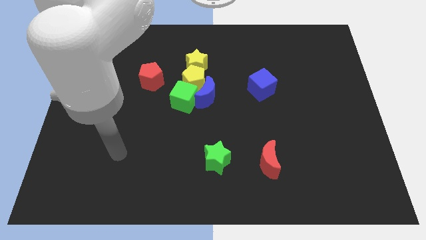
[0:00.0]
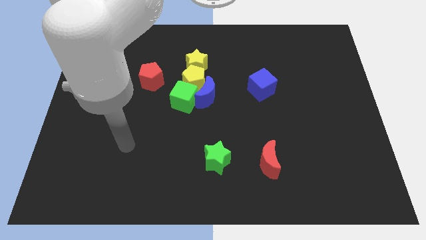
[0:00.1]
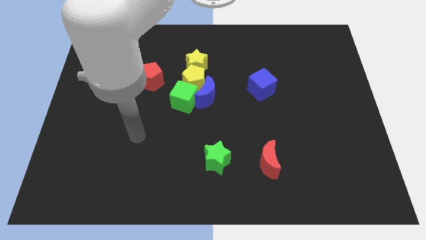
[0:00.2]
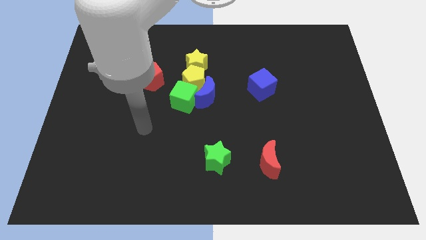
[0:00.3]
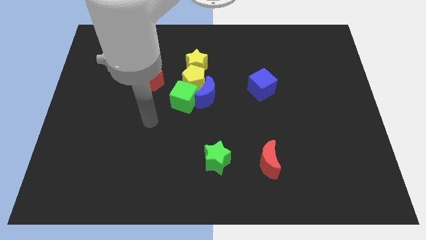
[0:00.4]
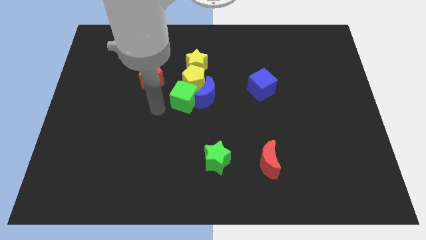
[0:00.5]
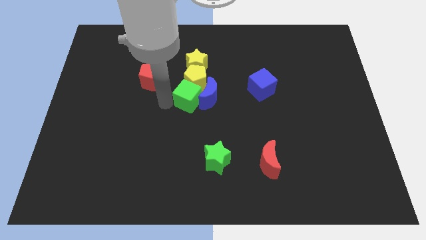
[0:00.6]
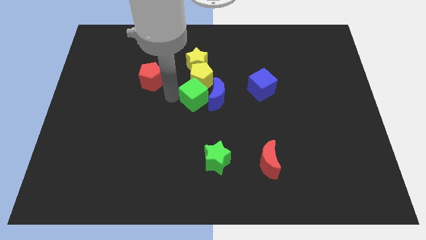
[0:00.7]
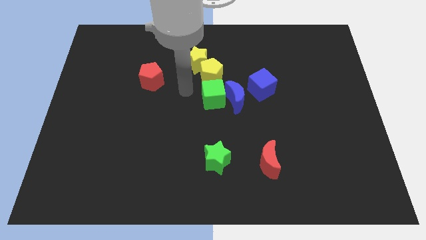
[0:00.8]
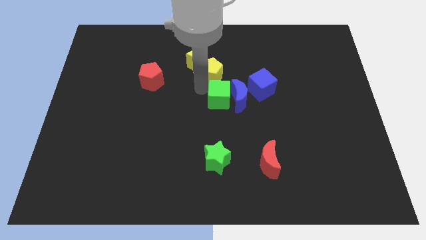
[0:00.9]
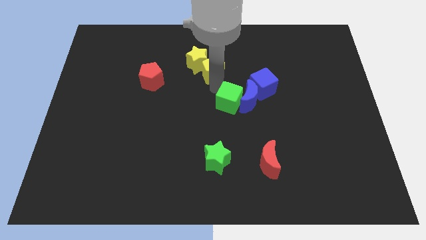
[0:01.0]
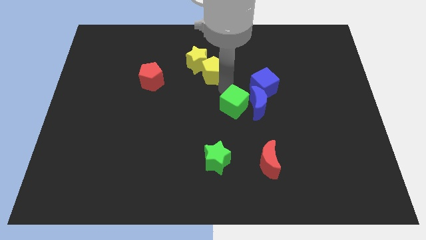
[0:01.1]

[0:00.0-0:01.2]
pull the blue moon apart from the yellow pentagon and green cube

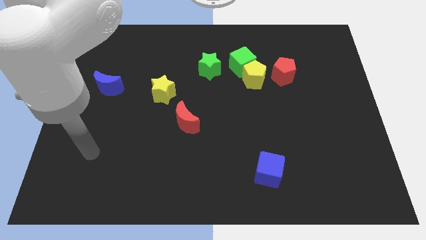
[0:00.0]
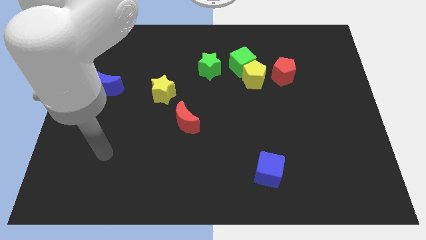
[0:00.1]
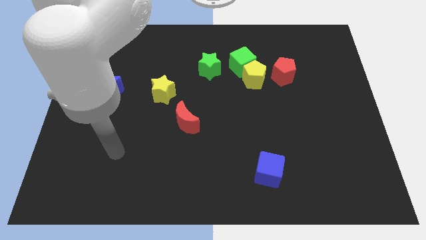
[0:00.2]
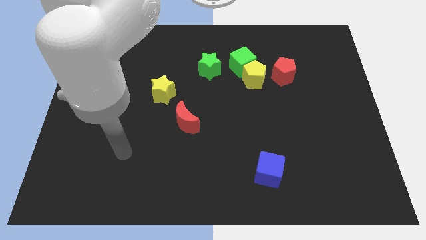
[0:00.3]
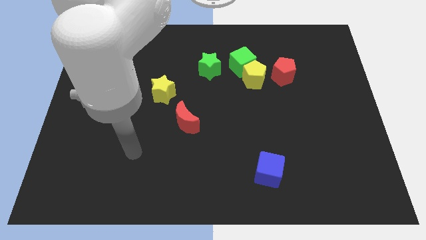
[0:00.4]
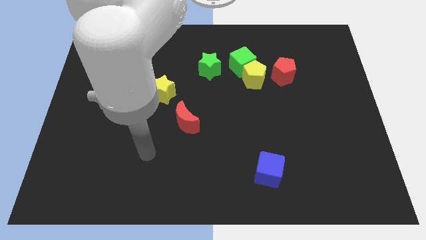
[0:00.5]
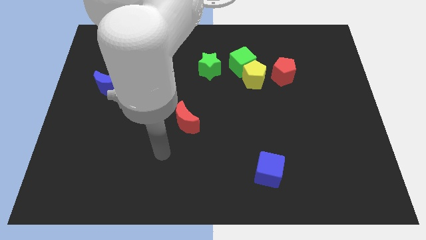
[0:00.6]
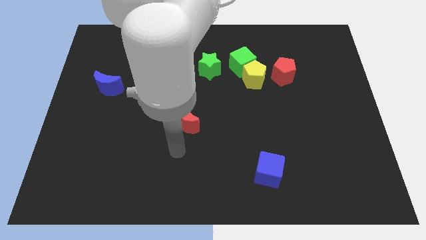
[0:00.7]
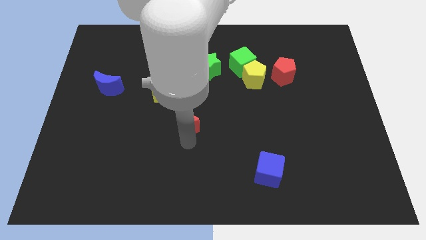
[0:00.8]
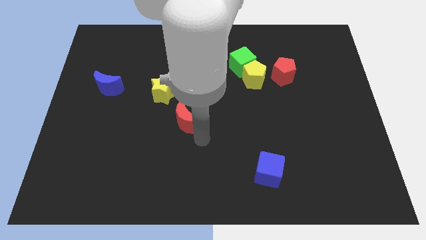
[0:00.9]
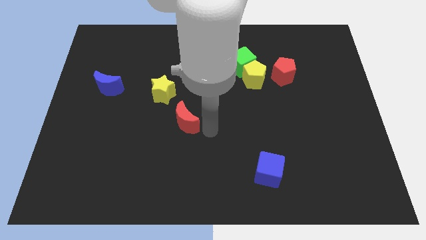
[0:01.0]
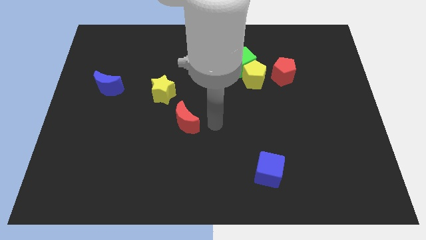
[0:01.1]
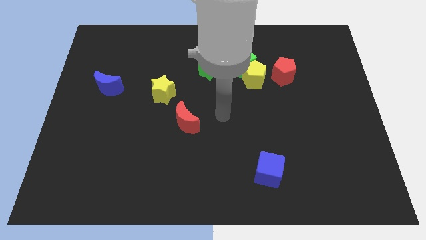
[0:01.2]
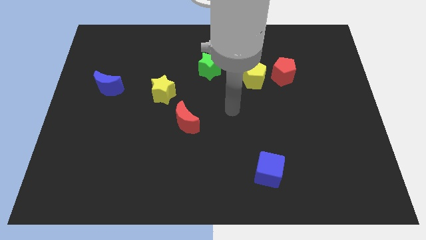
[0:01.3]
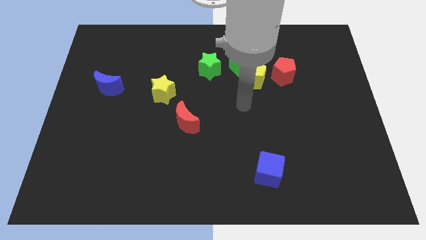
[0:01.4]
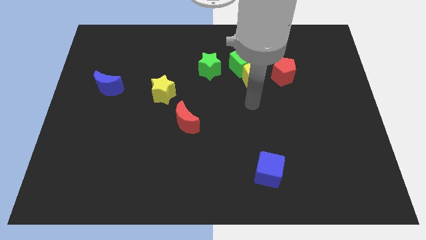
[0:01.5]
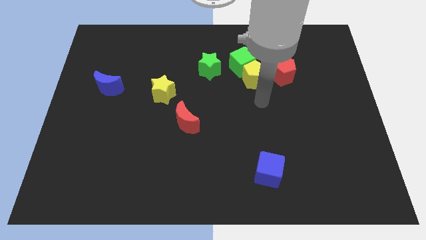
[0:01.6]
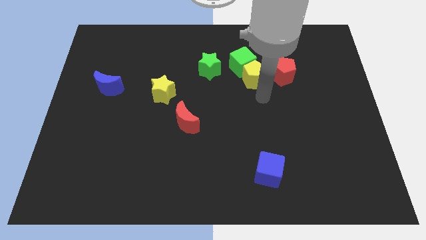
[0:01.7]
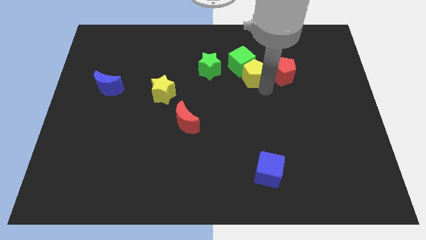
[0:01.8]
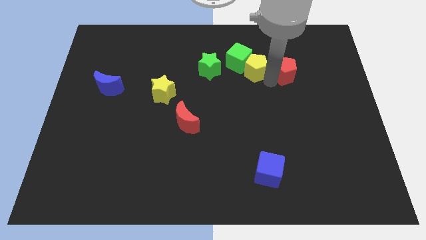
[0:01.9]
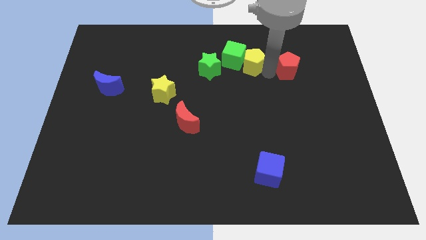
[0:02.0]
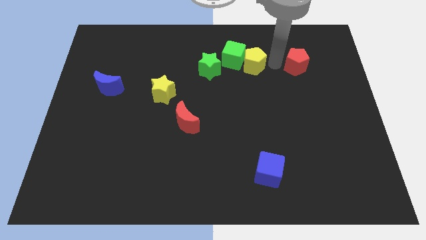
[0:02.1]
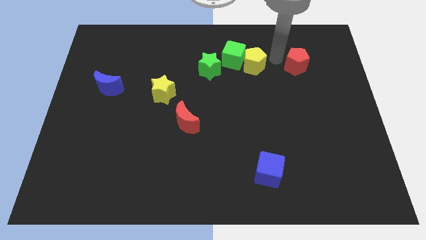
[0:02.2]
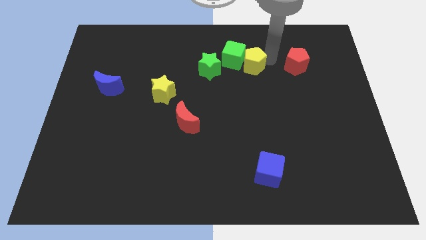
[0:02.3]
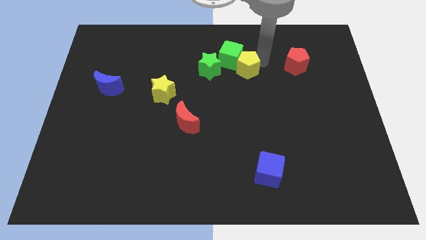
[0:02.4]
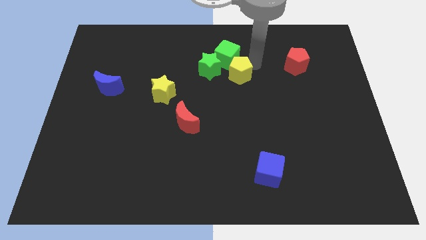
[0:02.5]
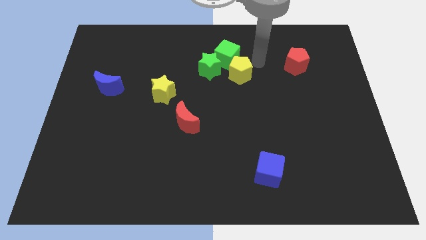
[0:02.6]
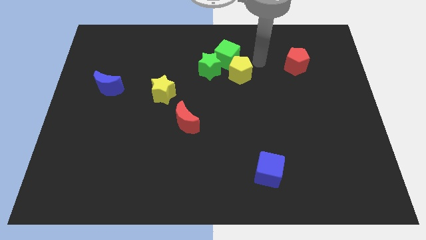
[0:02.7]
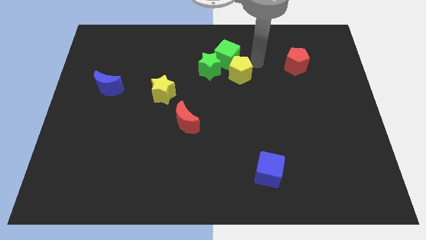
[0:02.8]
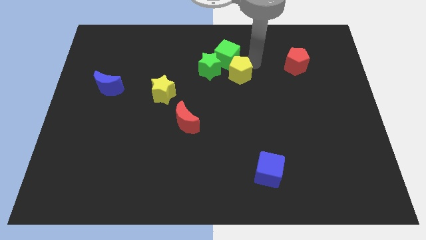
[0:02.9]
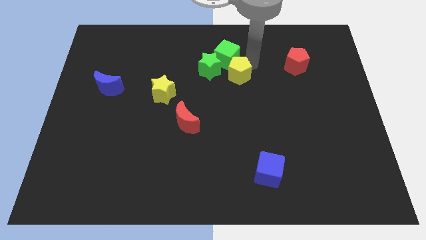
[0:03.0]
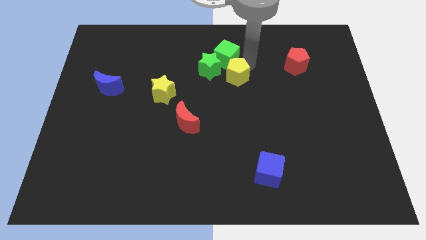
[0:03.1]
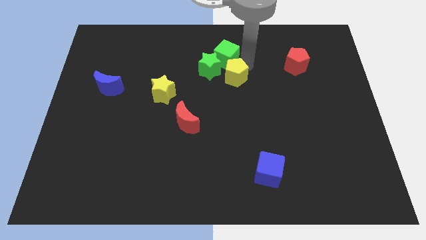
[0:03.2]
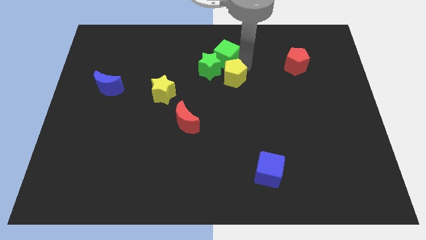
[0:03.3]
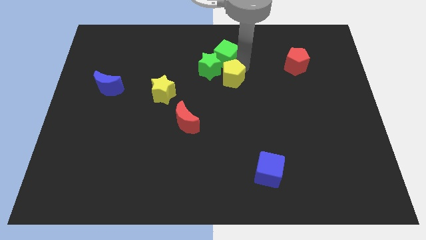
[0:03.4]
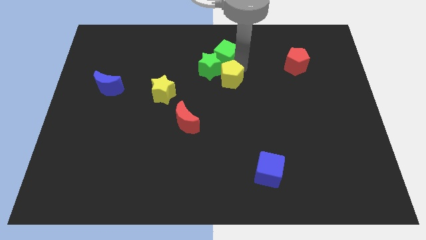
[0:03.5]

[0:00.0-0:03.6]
pull the yellow pentagon apart from the green cube and red pentagon

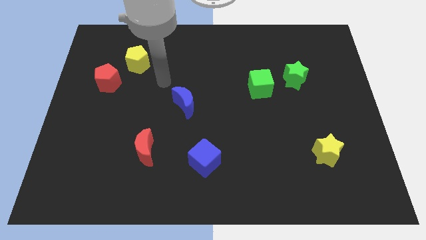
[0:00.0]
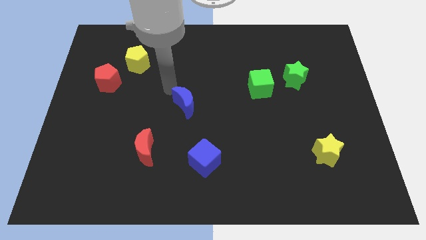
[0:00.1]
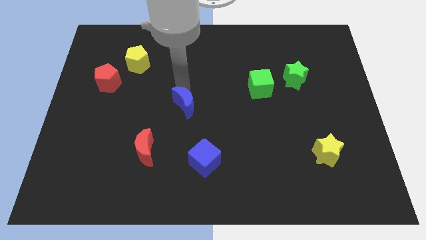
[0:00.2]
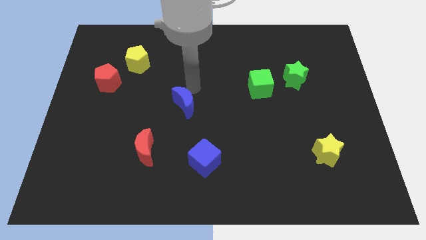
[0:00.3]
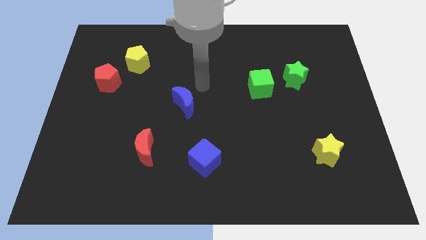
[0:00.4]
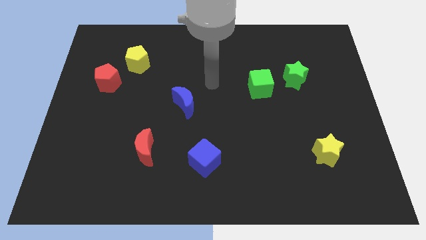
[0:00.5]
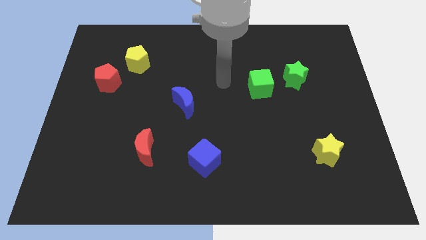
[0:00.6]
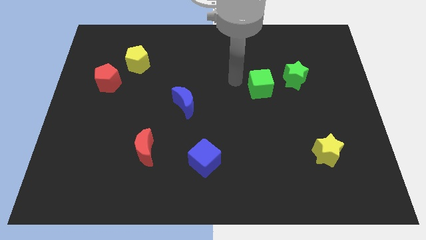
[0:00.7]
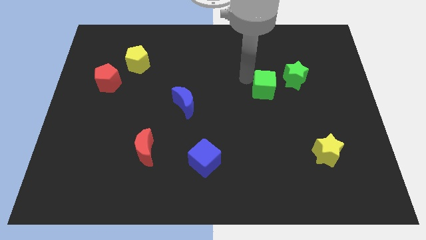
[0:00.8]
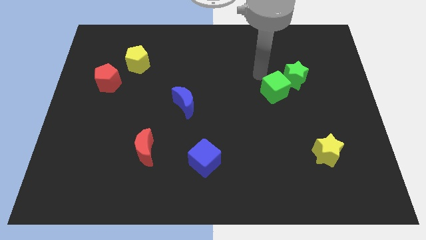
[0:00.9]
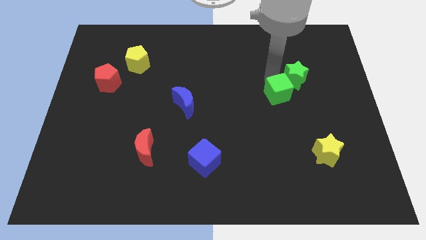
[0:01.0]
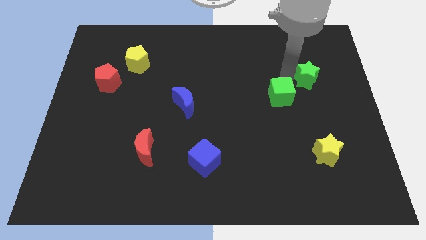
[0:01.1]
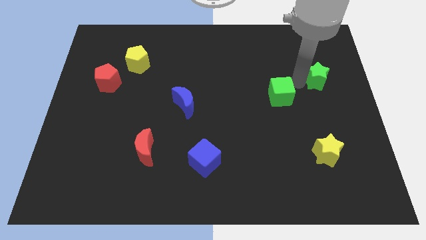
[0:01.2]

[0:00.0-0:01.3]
pull the green cube apart from the green star

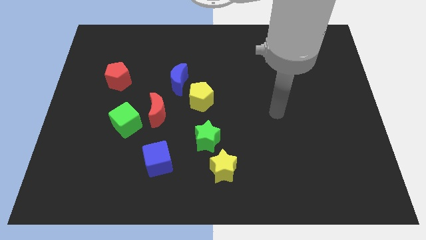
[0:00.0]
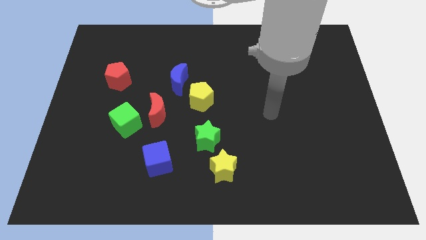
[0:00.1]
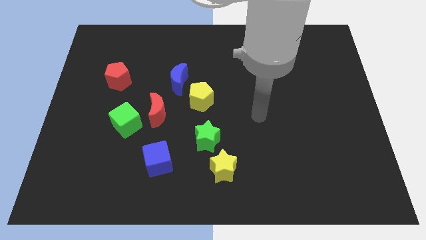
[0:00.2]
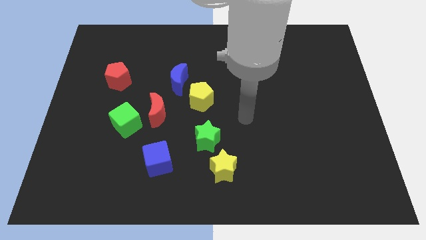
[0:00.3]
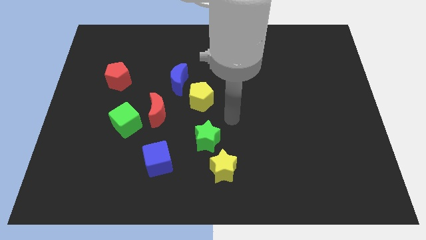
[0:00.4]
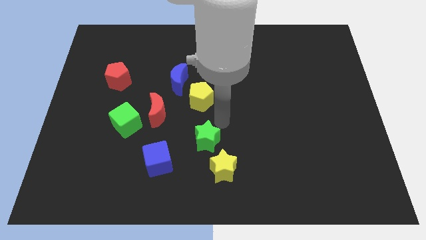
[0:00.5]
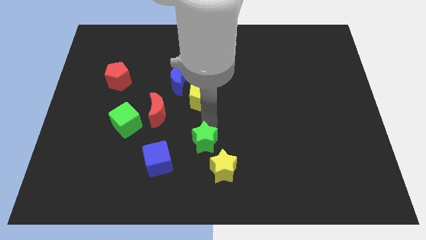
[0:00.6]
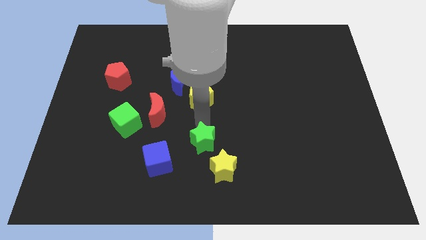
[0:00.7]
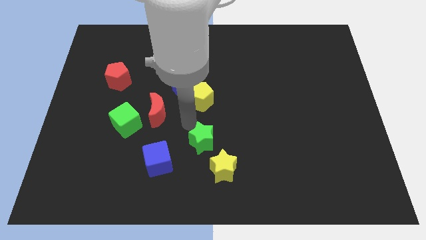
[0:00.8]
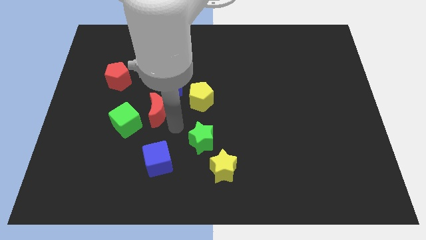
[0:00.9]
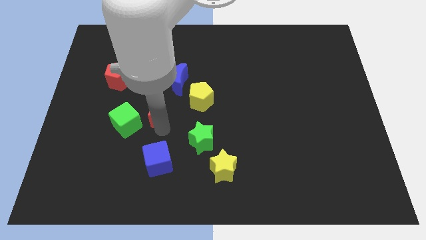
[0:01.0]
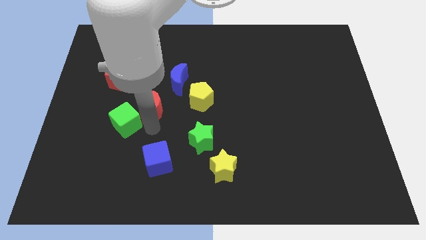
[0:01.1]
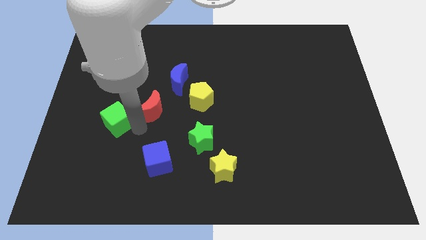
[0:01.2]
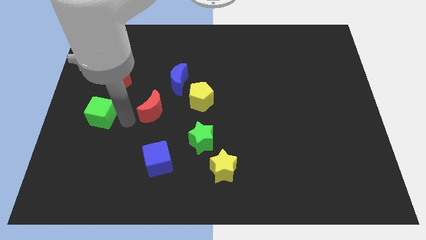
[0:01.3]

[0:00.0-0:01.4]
move the red moon away from the green cube

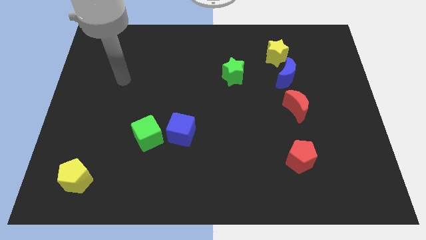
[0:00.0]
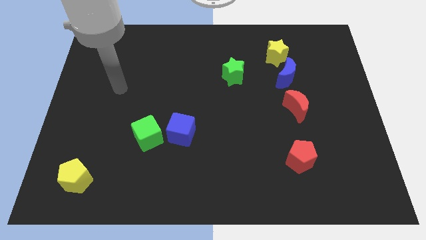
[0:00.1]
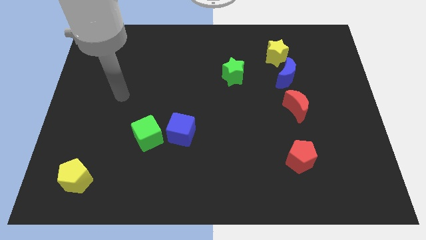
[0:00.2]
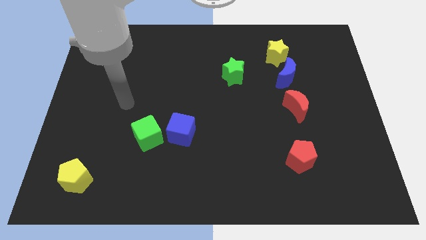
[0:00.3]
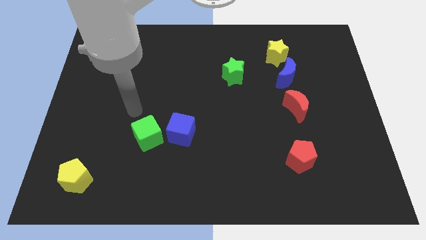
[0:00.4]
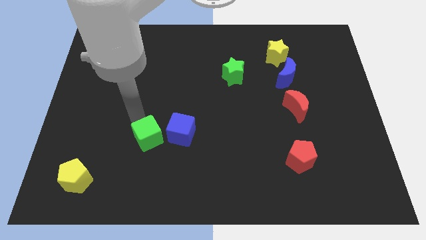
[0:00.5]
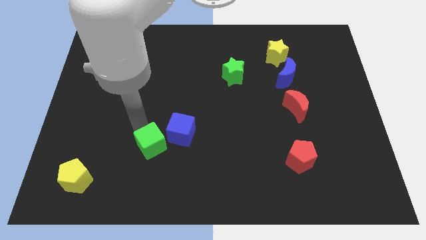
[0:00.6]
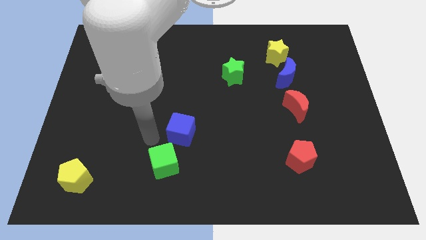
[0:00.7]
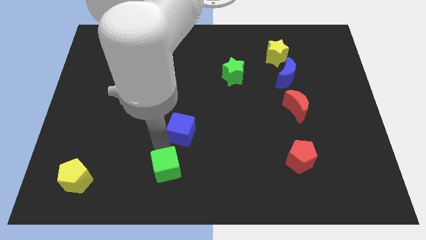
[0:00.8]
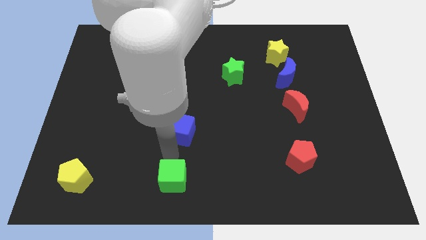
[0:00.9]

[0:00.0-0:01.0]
pull the blue cube apart from the green cube

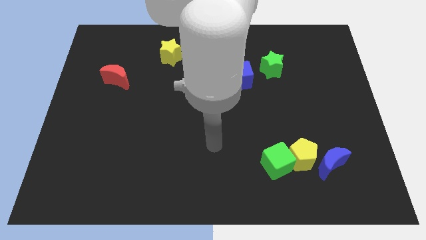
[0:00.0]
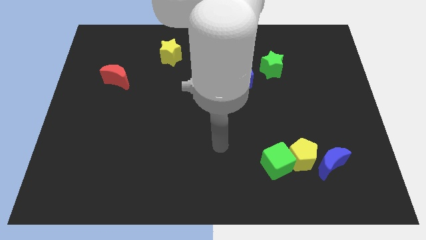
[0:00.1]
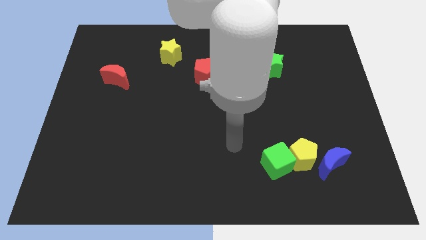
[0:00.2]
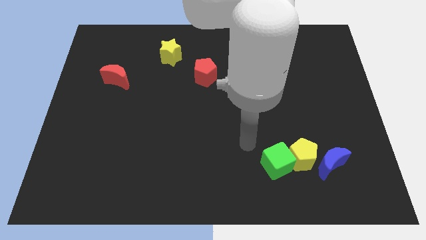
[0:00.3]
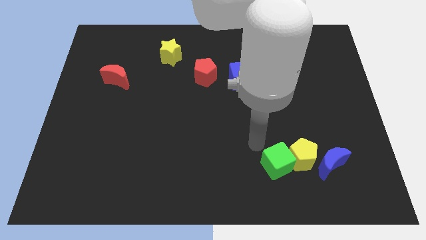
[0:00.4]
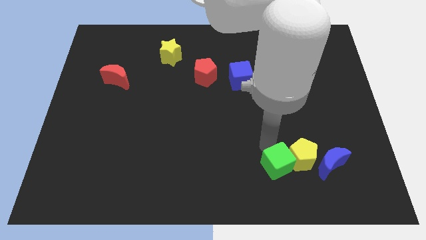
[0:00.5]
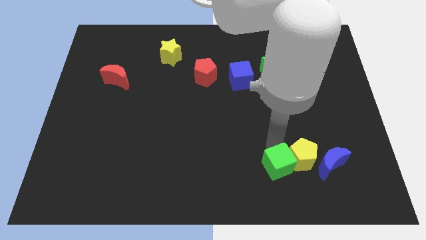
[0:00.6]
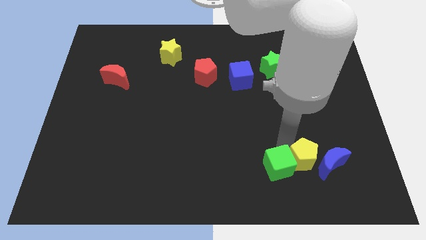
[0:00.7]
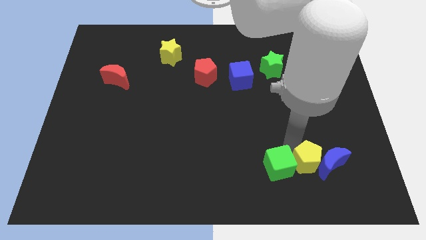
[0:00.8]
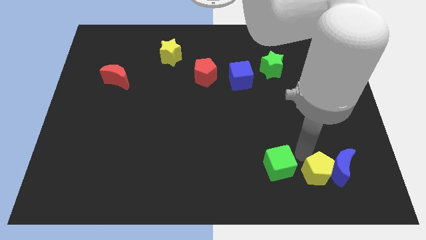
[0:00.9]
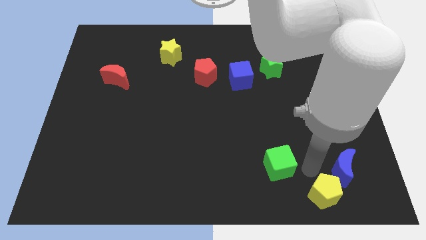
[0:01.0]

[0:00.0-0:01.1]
pull the green cube apart from the yellow pentagon
